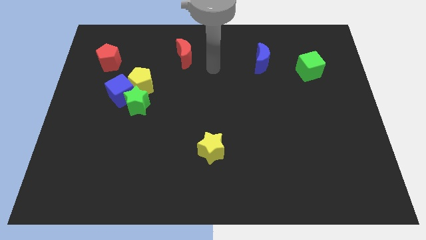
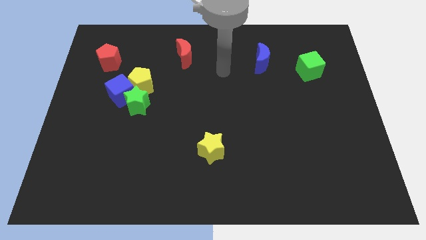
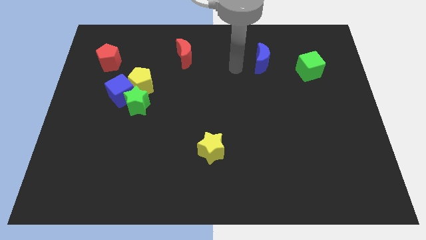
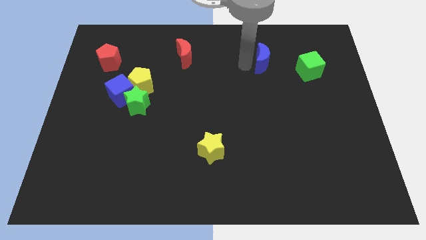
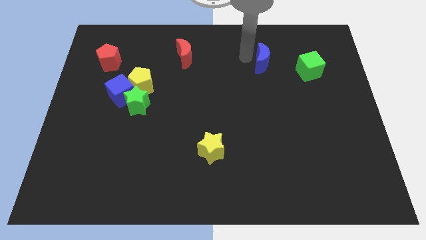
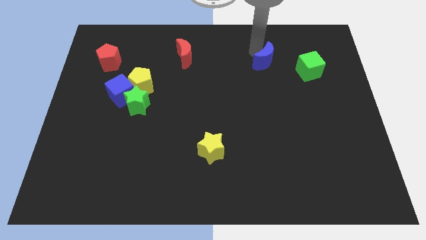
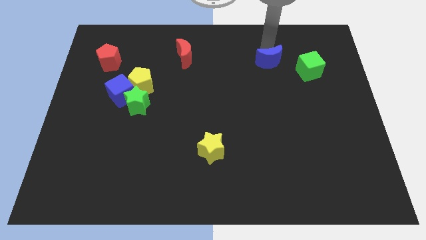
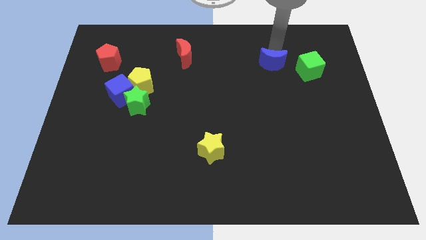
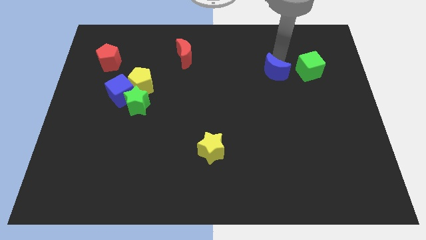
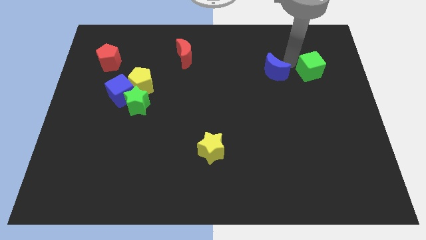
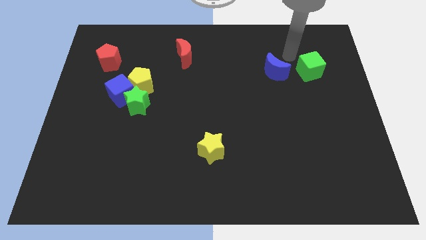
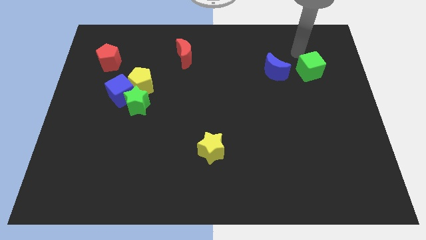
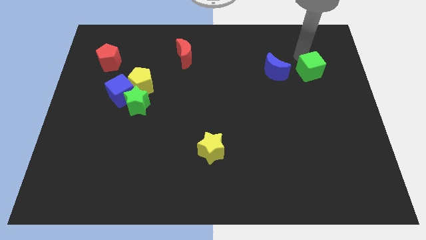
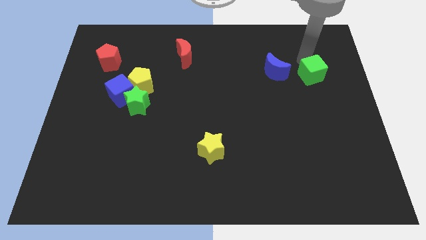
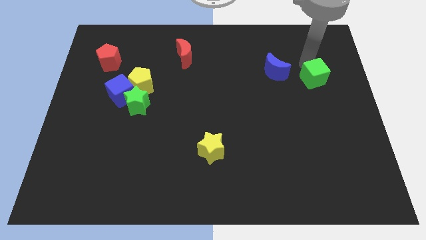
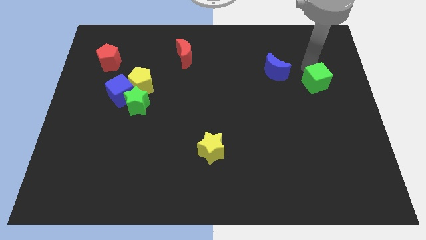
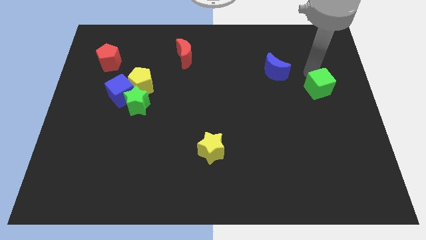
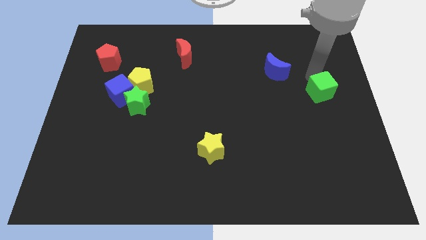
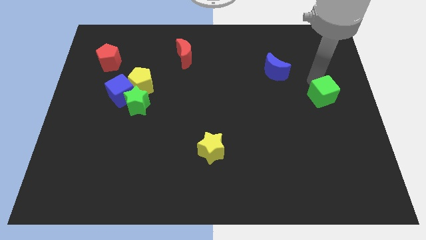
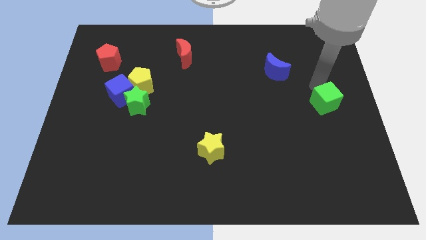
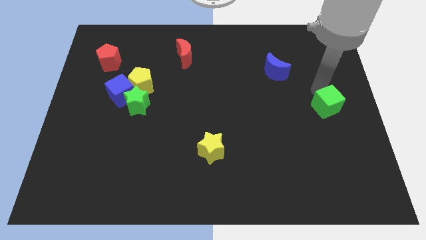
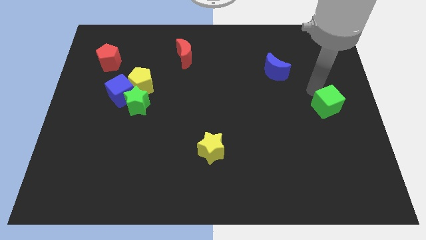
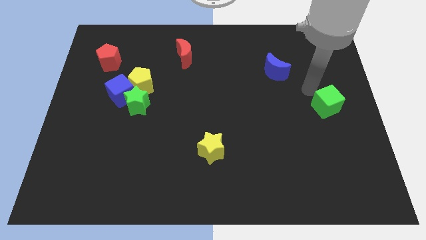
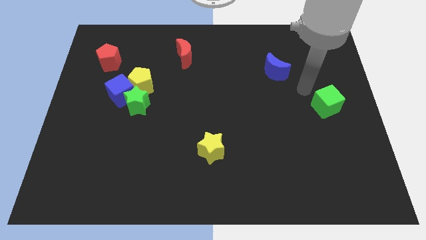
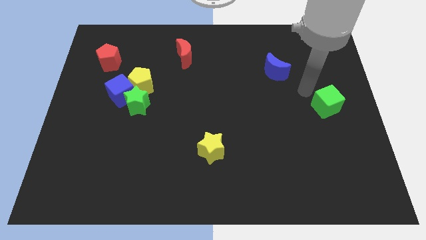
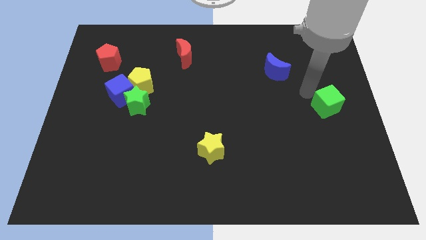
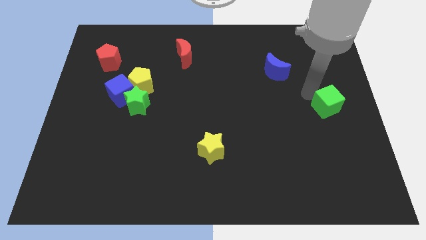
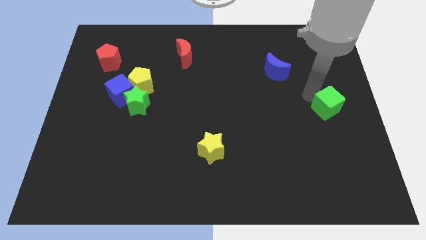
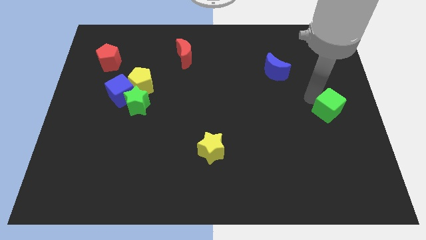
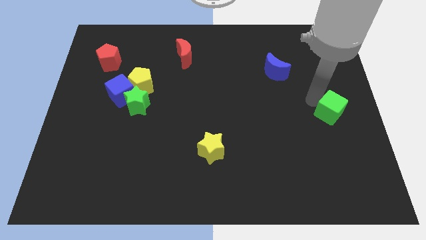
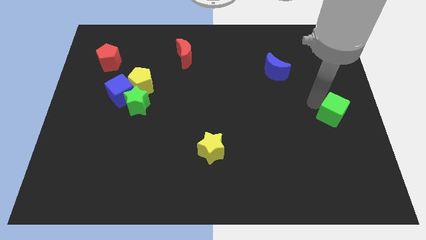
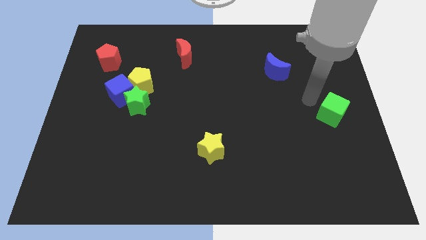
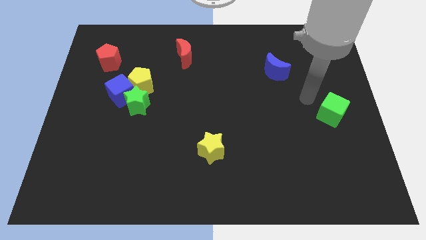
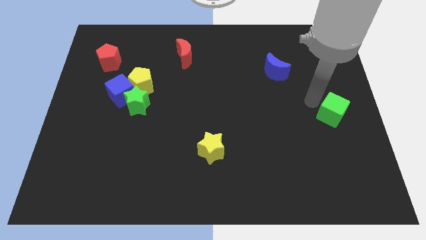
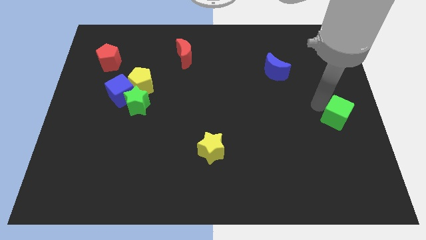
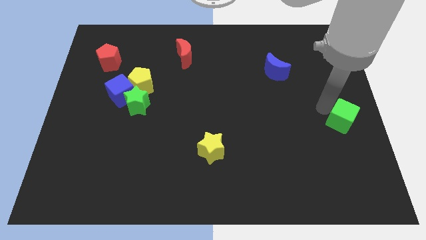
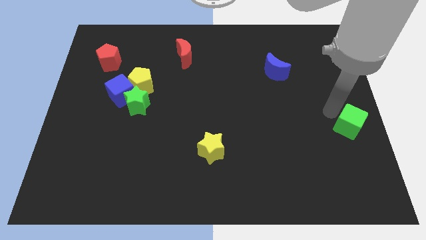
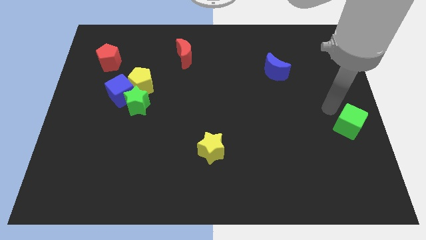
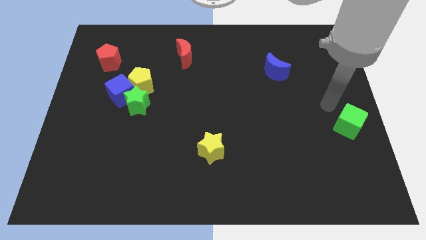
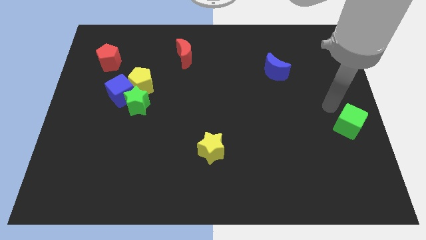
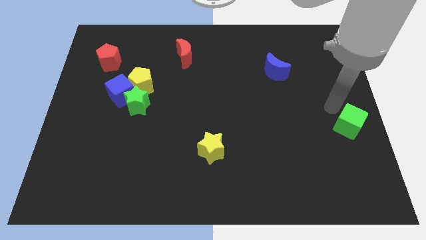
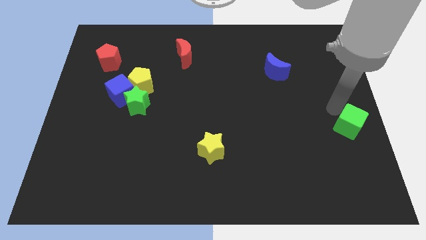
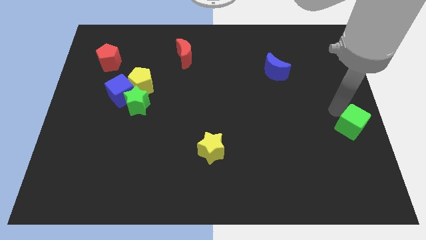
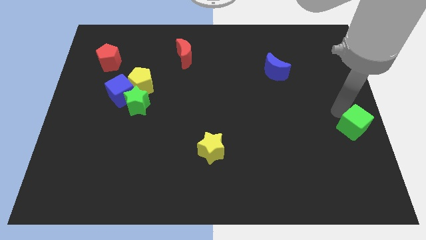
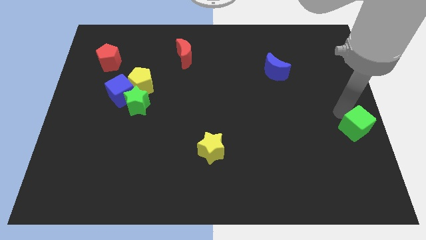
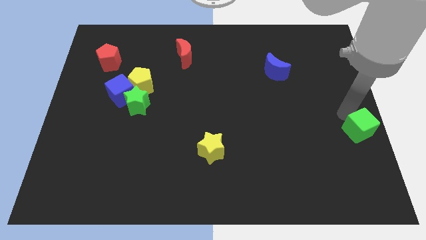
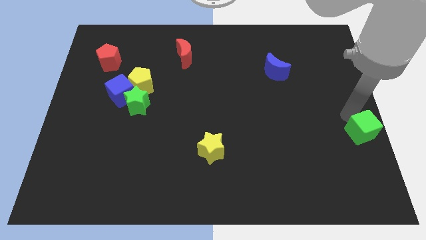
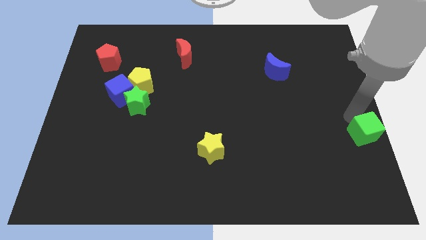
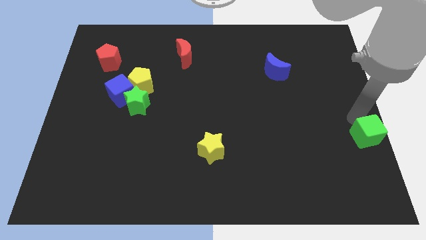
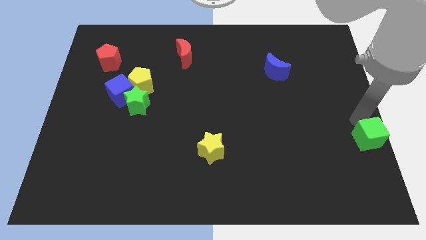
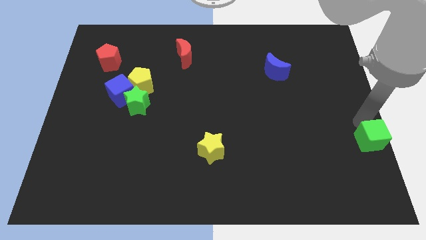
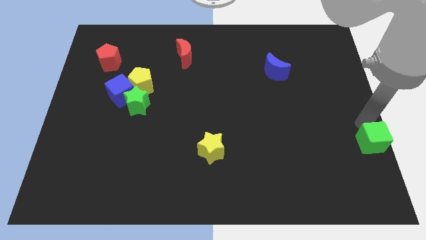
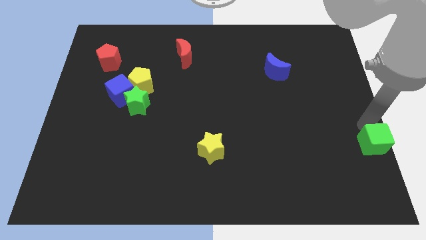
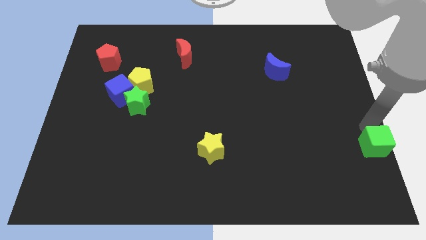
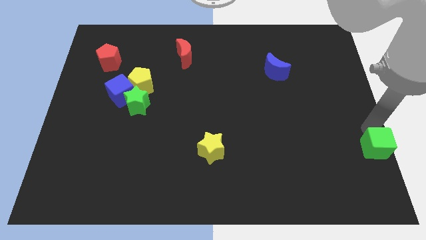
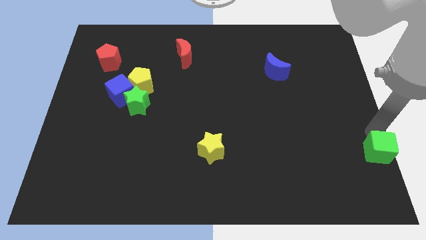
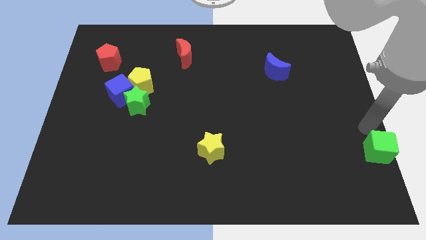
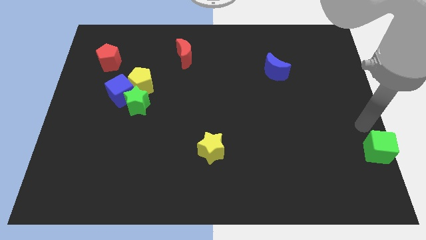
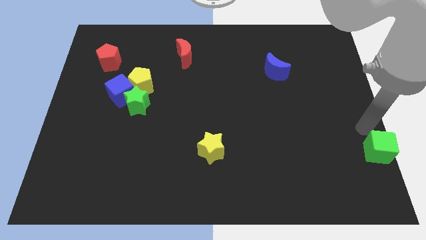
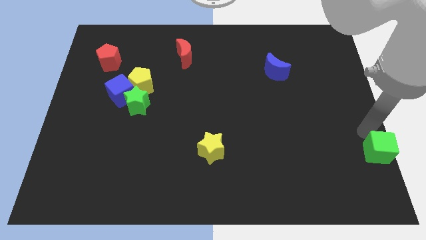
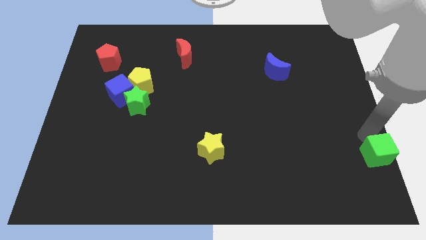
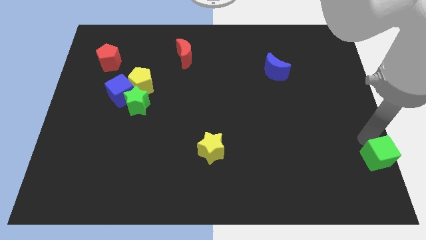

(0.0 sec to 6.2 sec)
slide the green cube to the bottom right corner

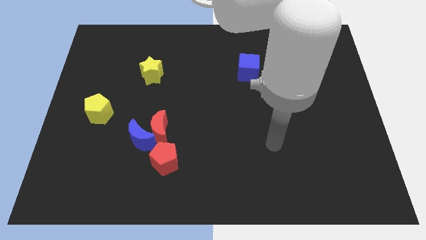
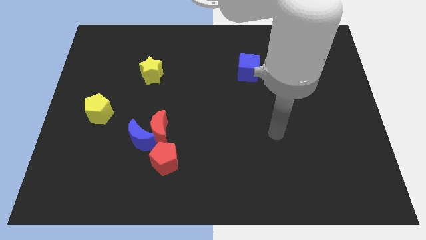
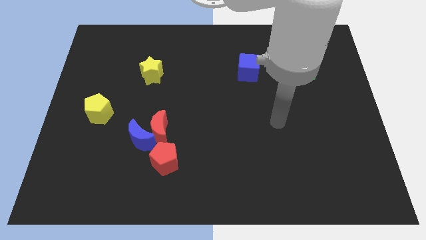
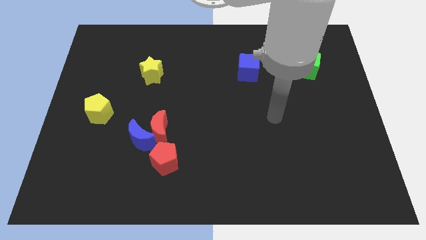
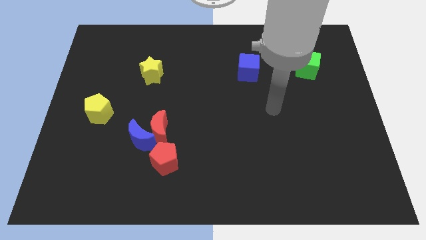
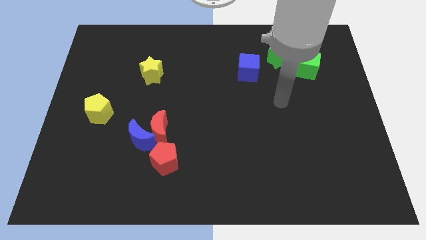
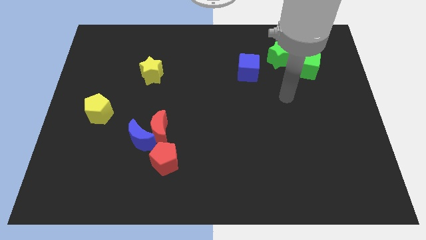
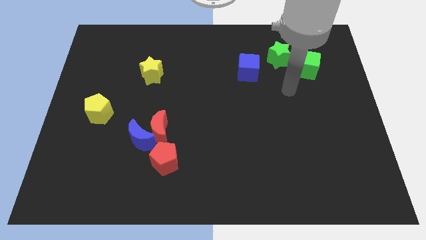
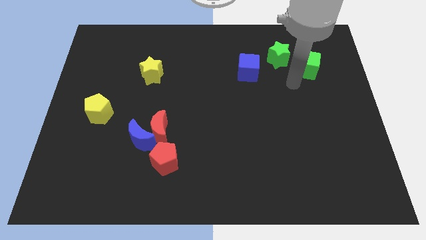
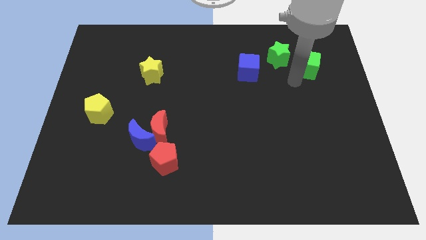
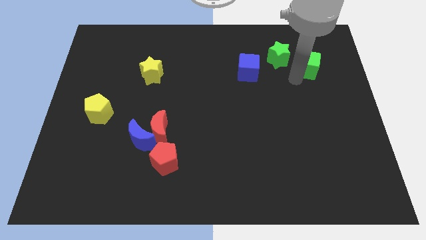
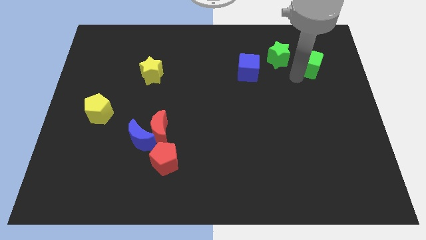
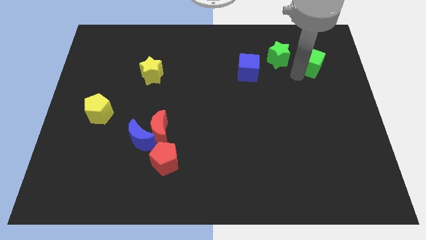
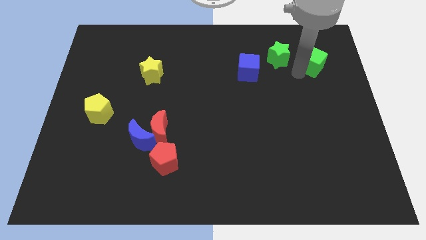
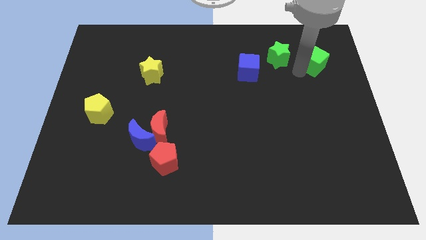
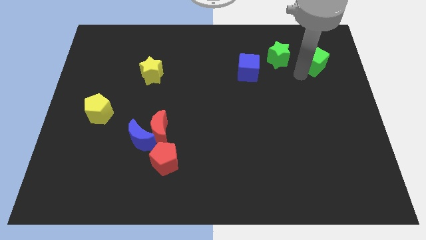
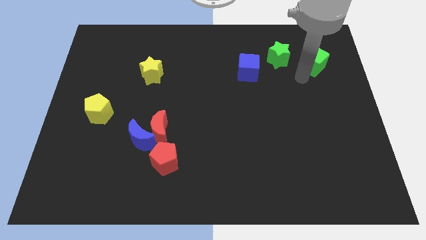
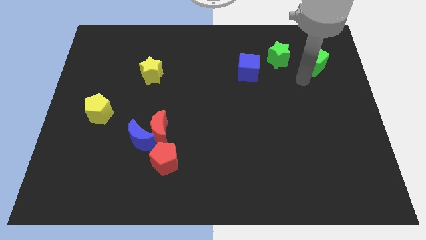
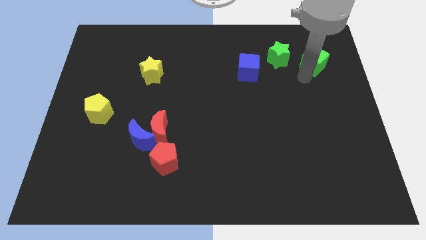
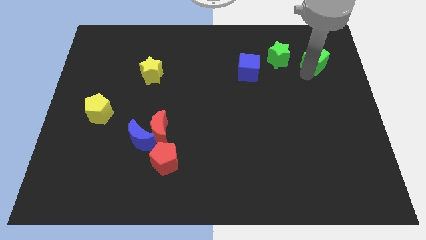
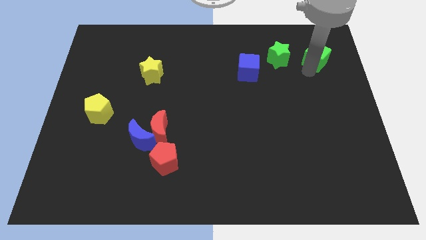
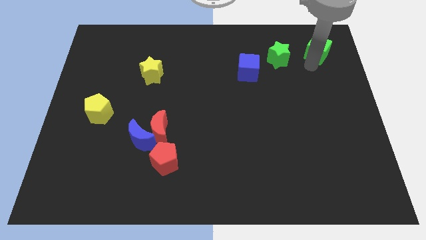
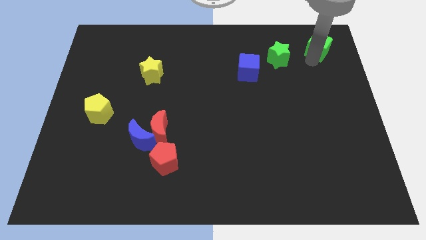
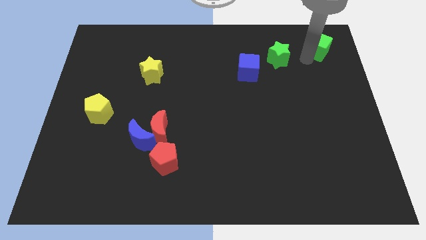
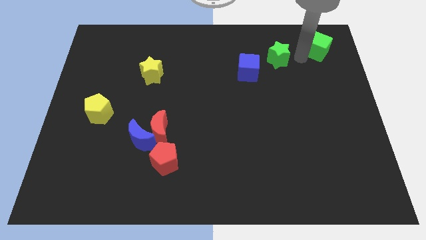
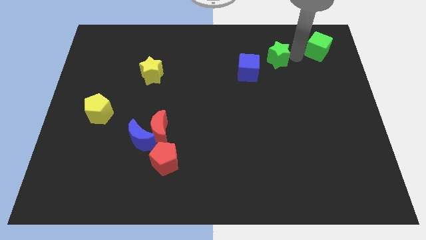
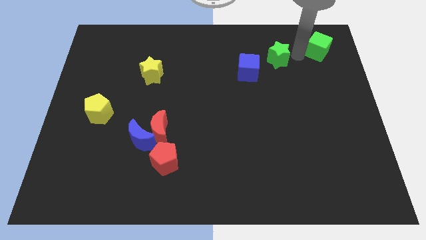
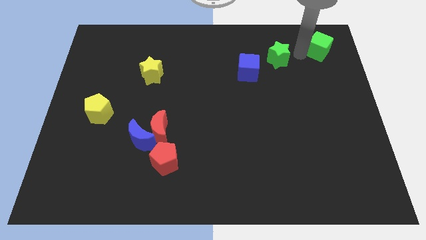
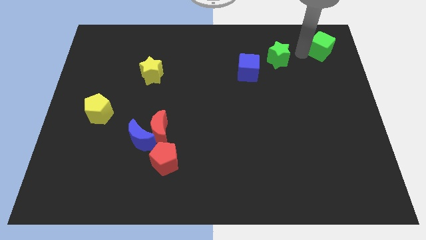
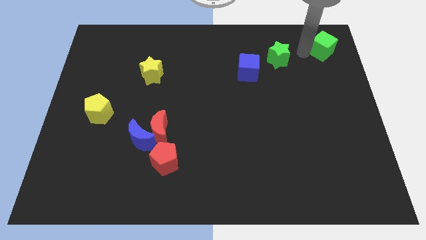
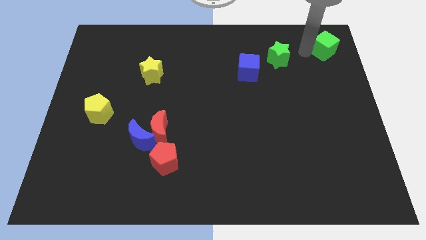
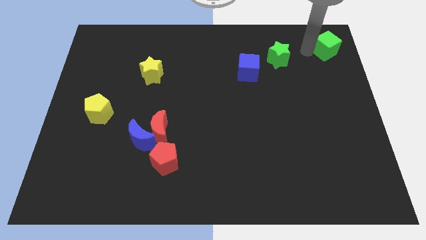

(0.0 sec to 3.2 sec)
push the green cube to the top right of the board
